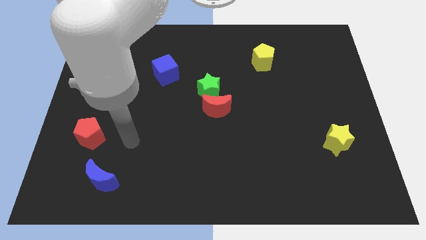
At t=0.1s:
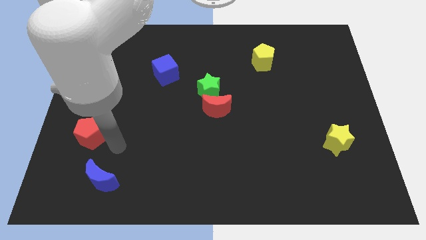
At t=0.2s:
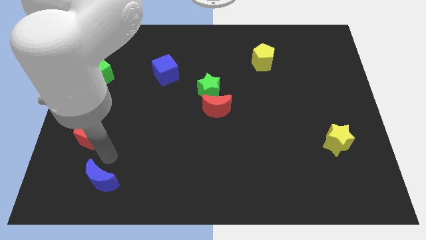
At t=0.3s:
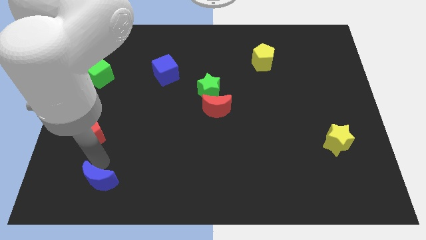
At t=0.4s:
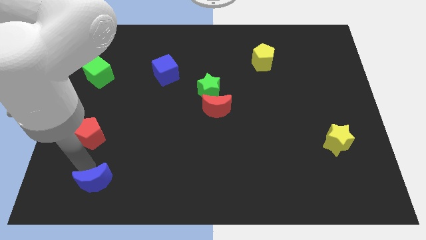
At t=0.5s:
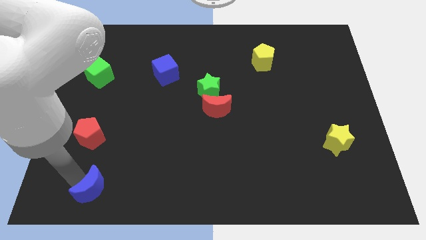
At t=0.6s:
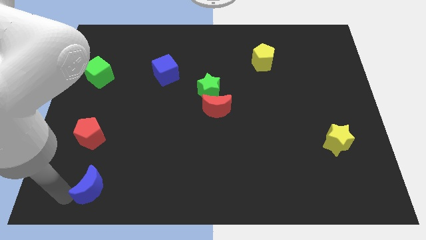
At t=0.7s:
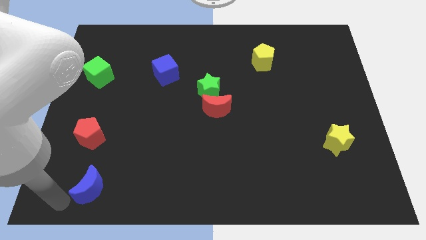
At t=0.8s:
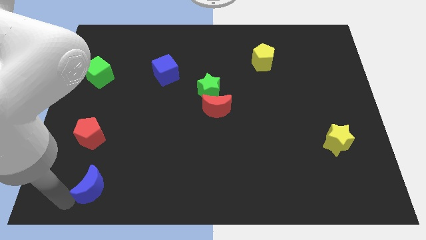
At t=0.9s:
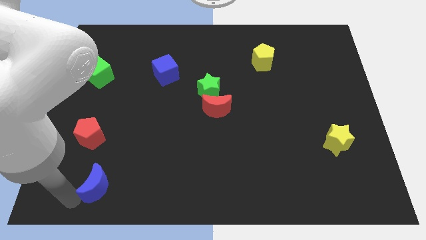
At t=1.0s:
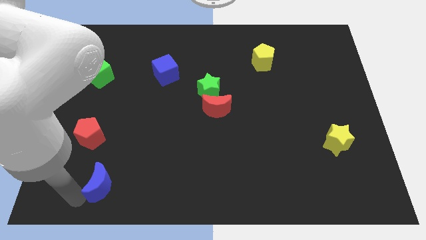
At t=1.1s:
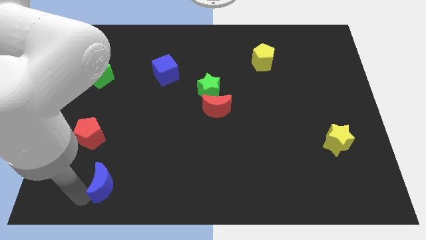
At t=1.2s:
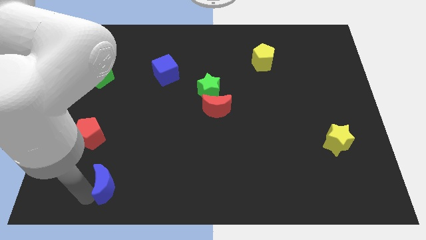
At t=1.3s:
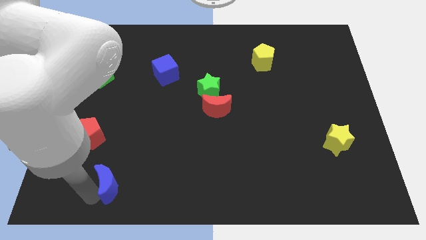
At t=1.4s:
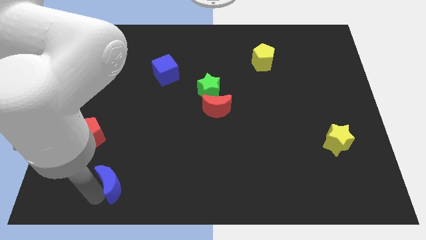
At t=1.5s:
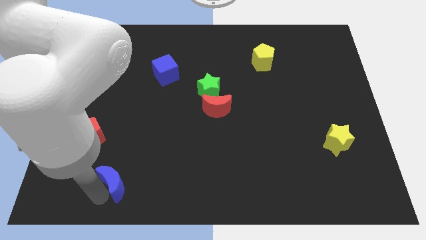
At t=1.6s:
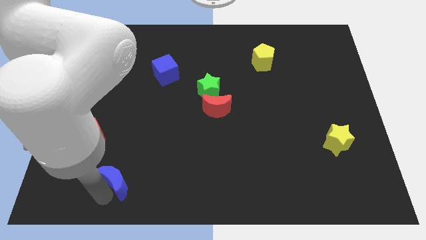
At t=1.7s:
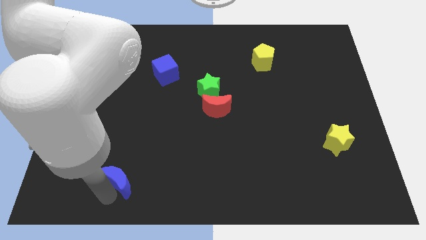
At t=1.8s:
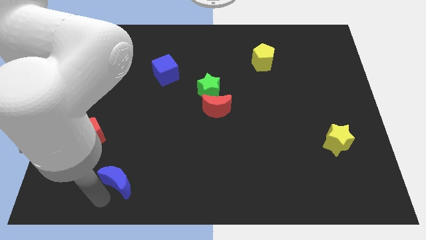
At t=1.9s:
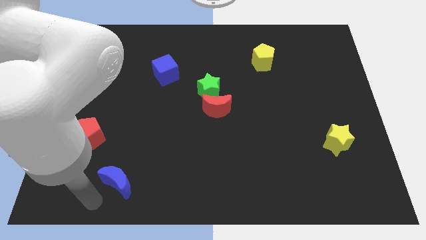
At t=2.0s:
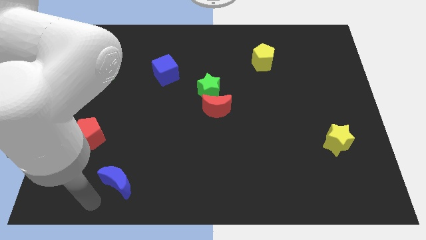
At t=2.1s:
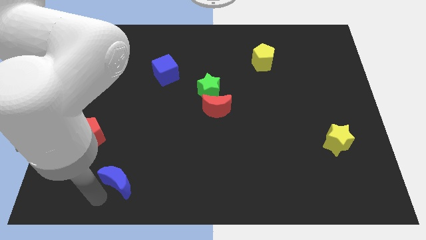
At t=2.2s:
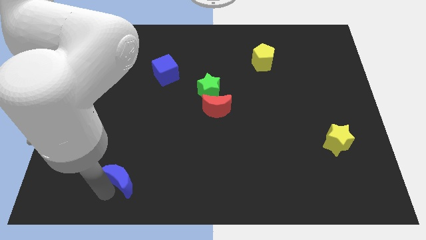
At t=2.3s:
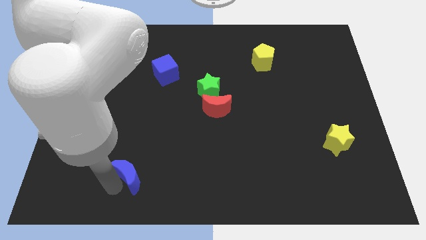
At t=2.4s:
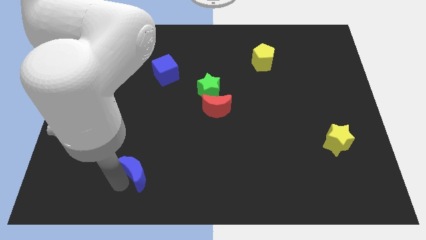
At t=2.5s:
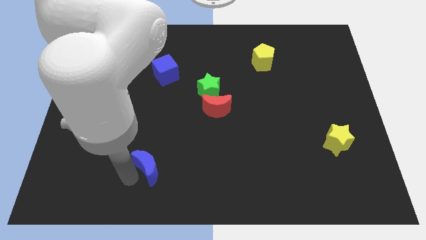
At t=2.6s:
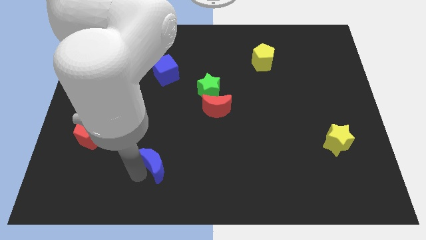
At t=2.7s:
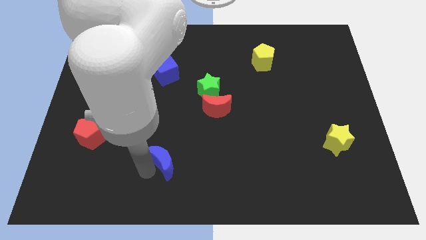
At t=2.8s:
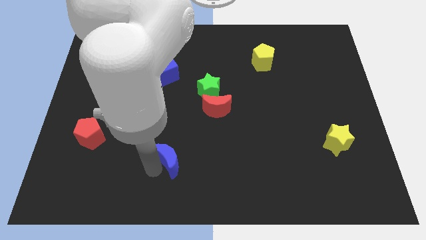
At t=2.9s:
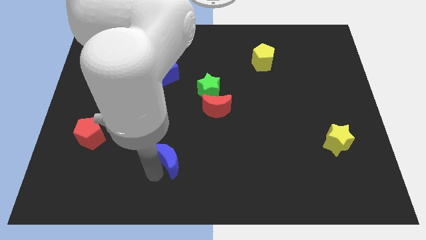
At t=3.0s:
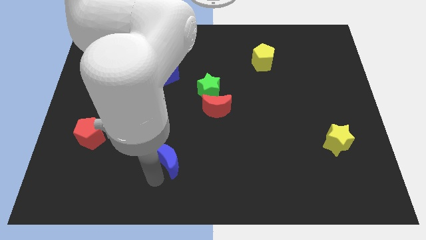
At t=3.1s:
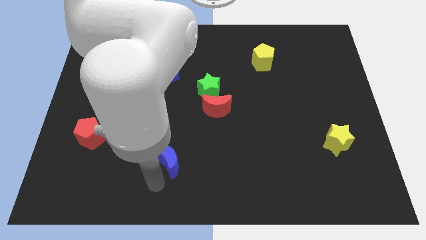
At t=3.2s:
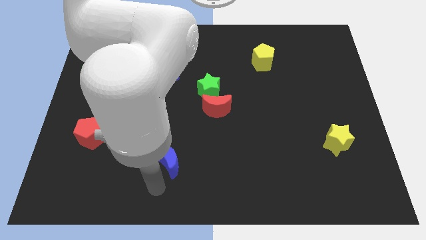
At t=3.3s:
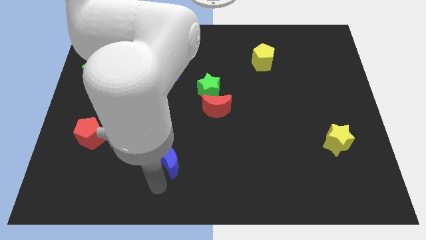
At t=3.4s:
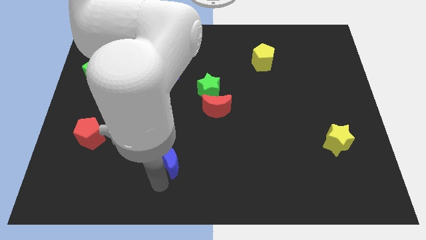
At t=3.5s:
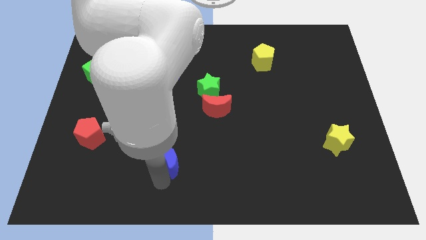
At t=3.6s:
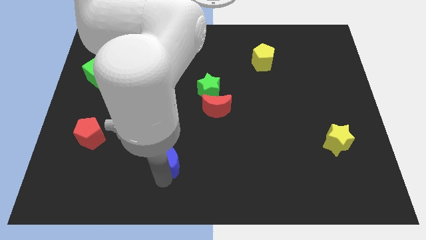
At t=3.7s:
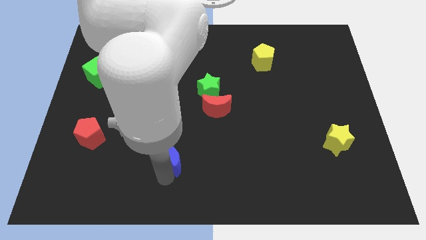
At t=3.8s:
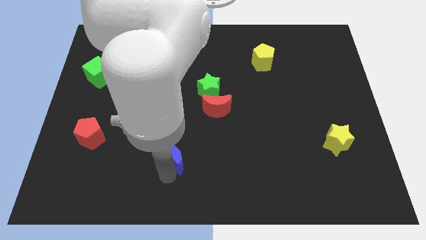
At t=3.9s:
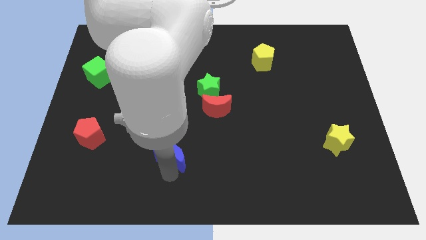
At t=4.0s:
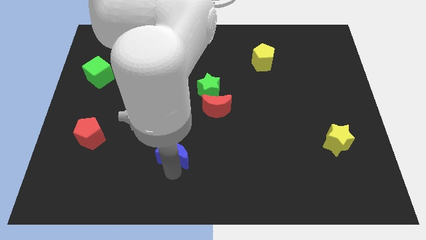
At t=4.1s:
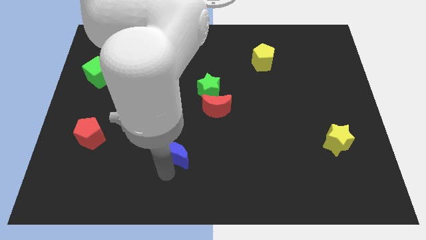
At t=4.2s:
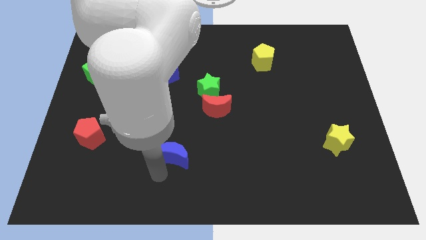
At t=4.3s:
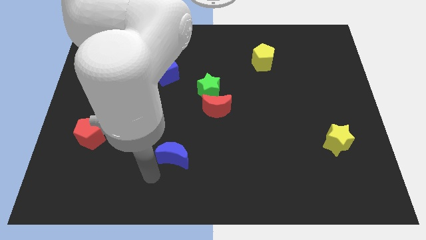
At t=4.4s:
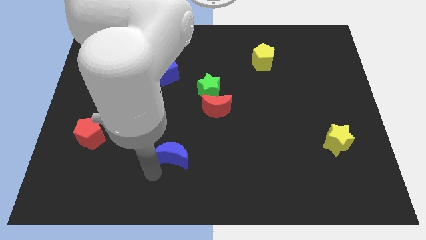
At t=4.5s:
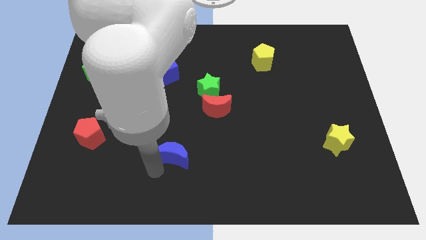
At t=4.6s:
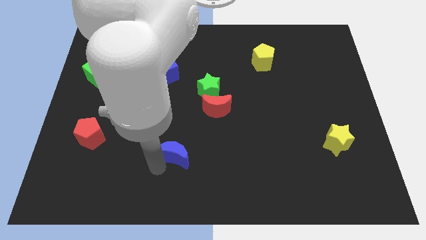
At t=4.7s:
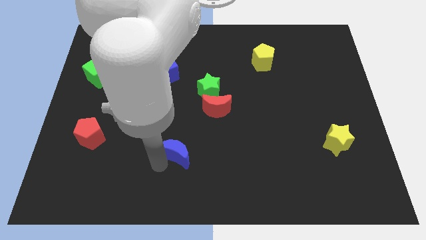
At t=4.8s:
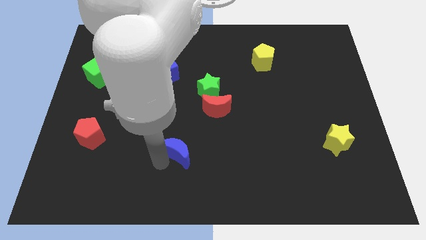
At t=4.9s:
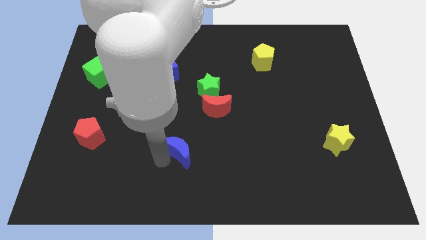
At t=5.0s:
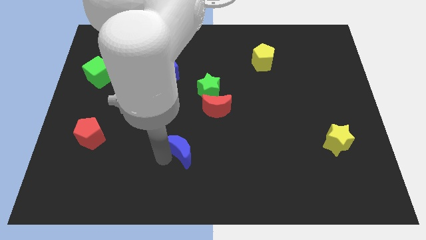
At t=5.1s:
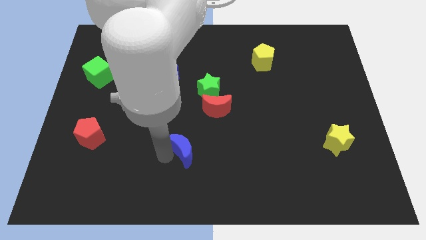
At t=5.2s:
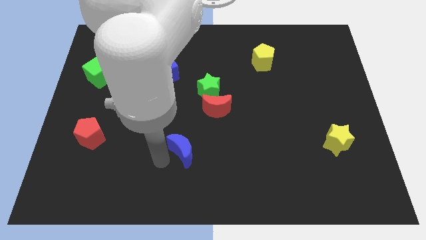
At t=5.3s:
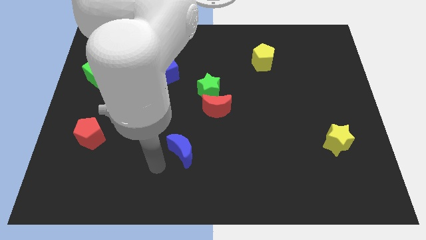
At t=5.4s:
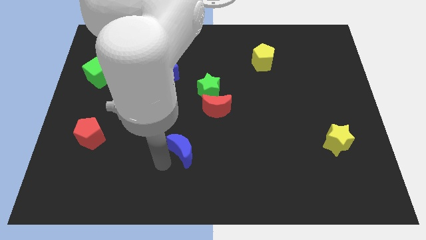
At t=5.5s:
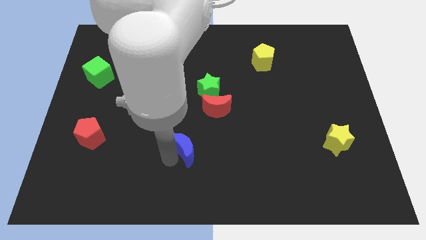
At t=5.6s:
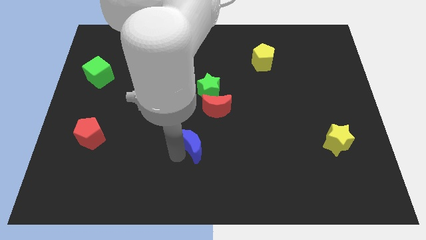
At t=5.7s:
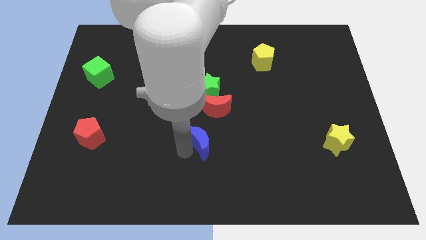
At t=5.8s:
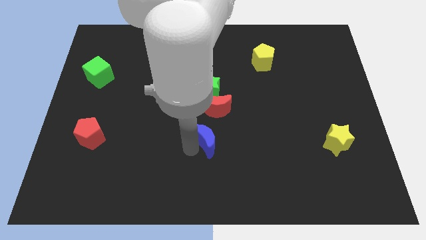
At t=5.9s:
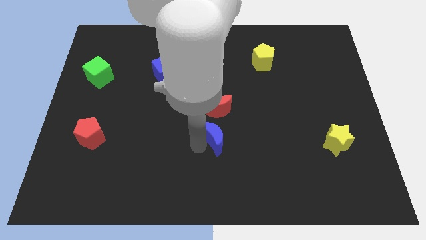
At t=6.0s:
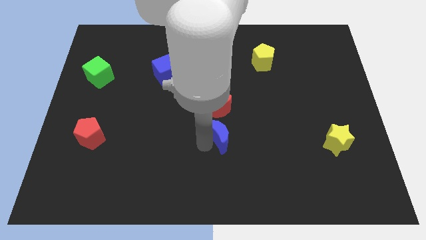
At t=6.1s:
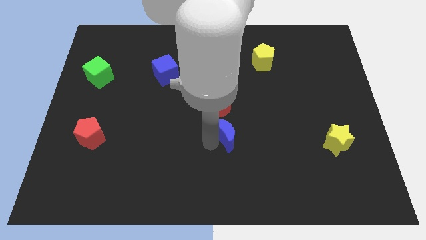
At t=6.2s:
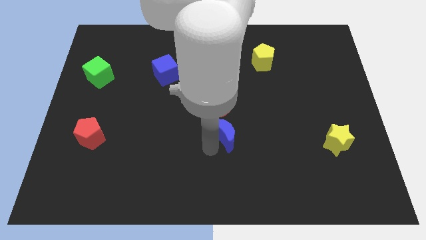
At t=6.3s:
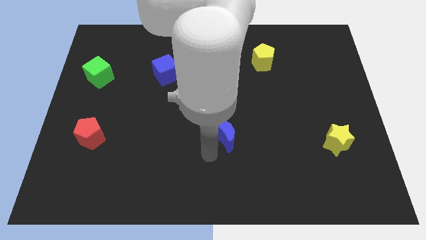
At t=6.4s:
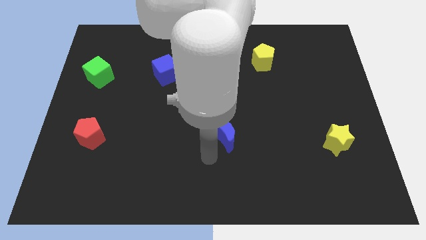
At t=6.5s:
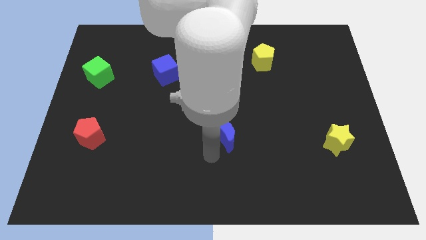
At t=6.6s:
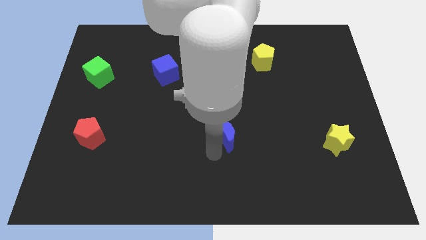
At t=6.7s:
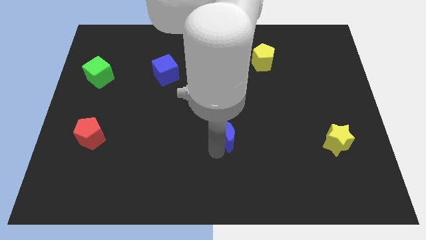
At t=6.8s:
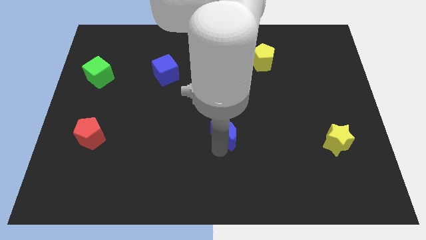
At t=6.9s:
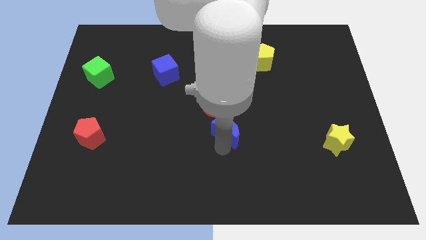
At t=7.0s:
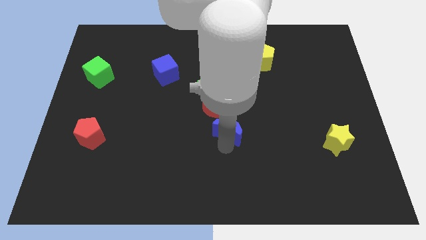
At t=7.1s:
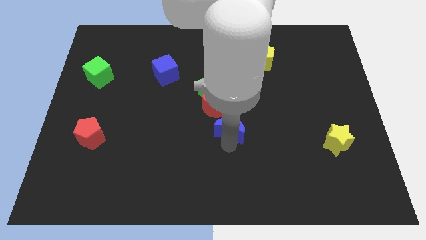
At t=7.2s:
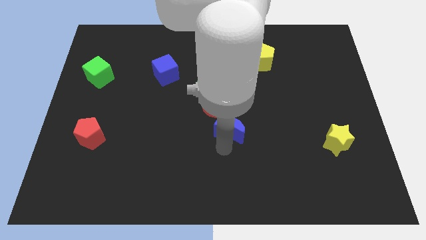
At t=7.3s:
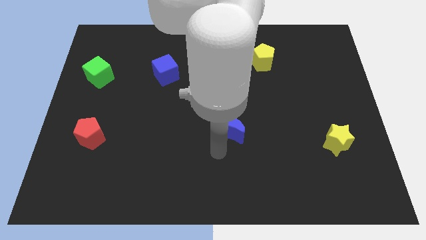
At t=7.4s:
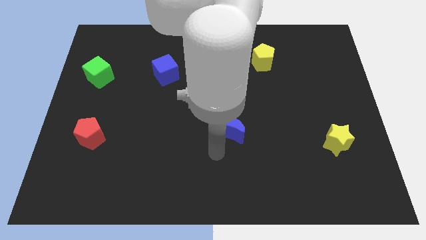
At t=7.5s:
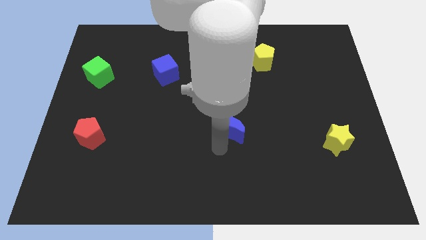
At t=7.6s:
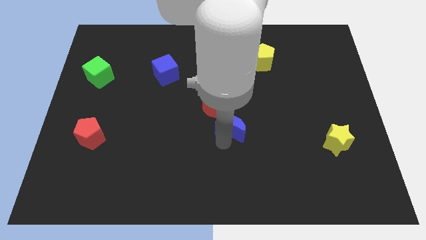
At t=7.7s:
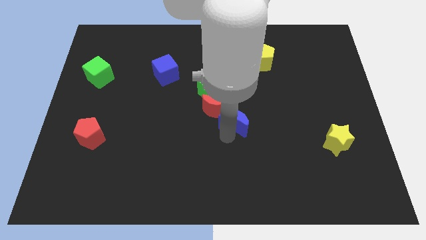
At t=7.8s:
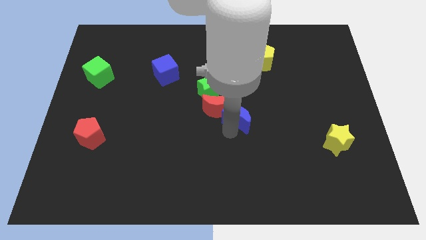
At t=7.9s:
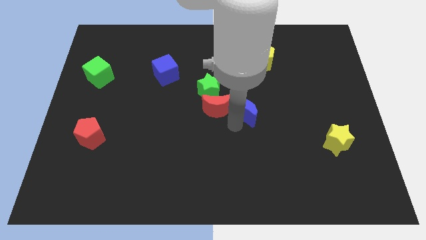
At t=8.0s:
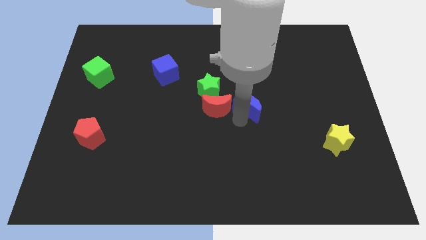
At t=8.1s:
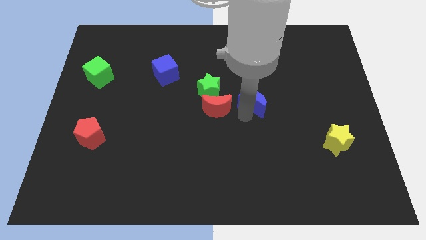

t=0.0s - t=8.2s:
put the blue moon right of the green star
